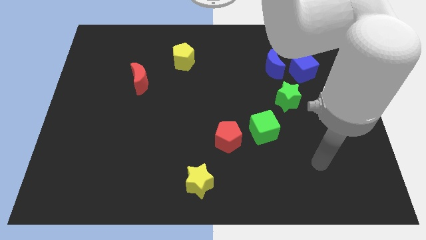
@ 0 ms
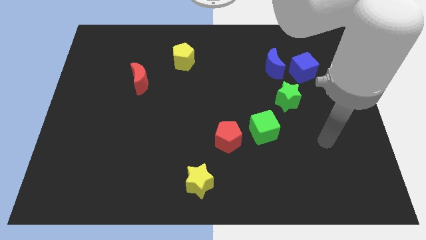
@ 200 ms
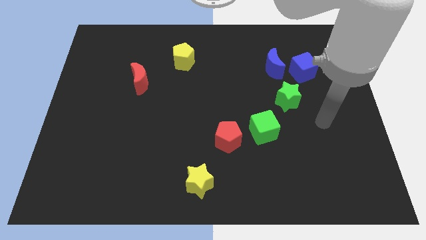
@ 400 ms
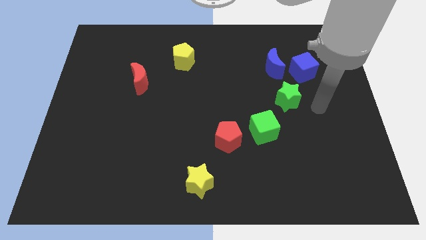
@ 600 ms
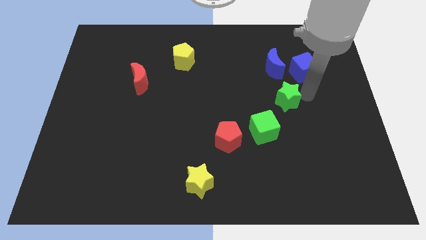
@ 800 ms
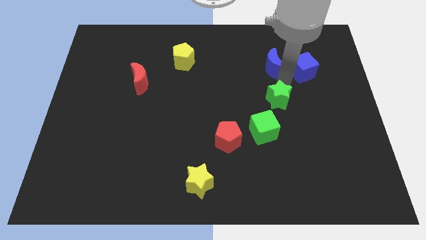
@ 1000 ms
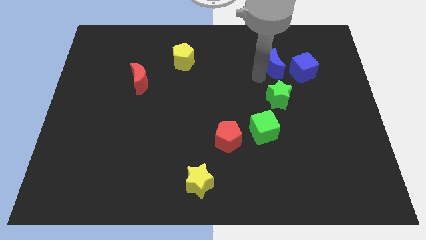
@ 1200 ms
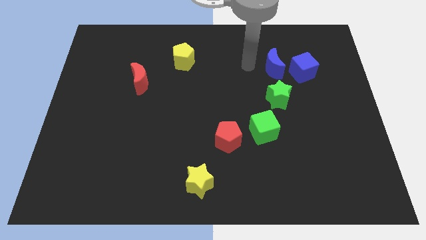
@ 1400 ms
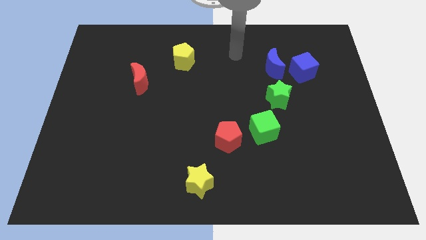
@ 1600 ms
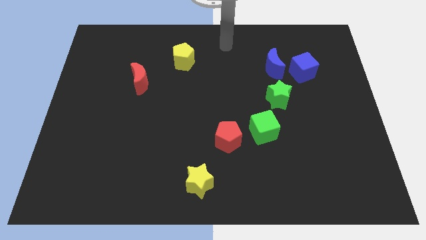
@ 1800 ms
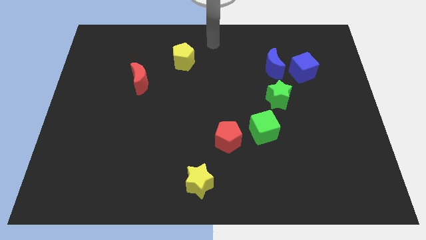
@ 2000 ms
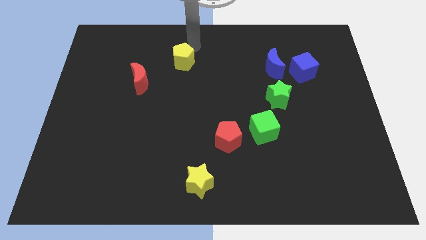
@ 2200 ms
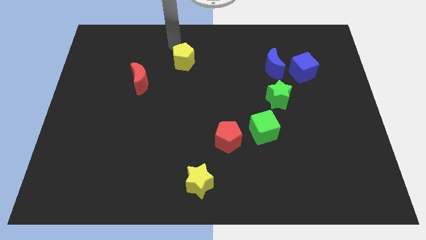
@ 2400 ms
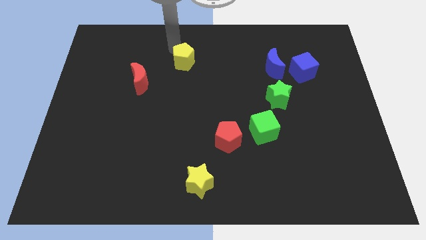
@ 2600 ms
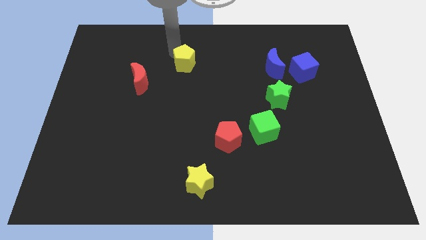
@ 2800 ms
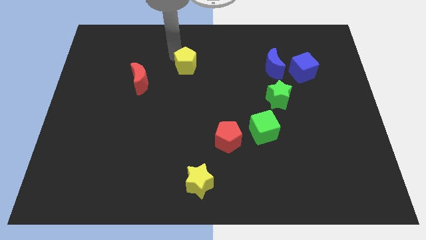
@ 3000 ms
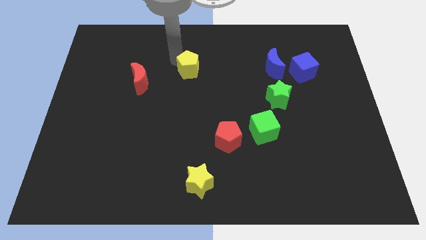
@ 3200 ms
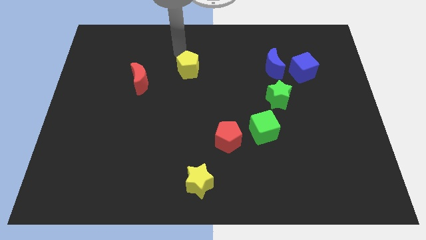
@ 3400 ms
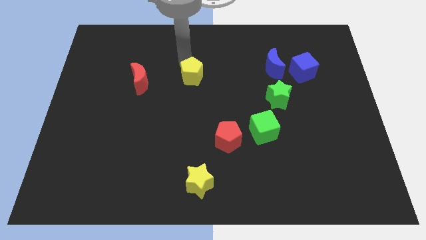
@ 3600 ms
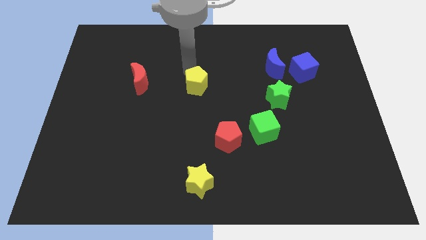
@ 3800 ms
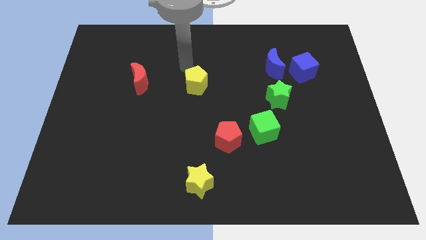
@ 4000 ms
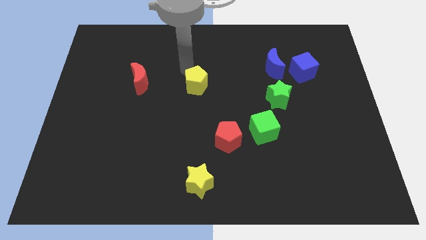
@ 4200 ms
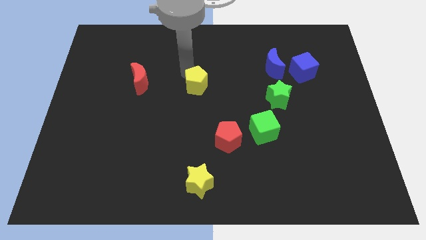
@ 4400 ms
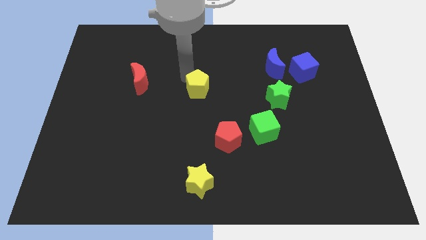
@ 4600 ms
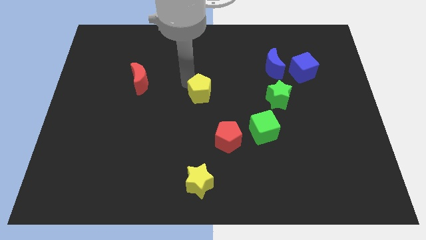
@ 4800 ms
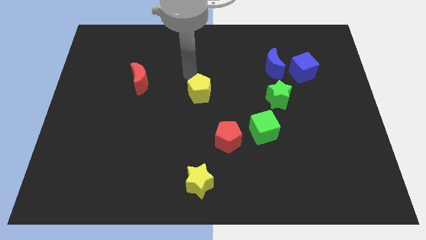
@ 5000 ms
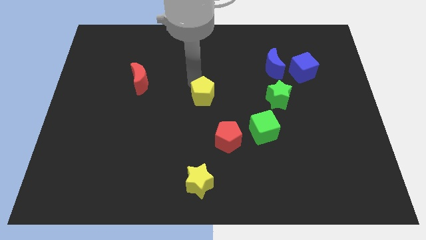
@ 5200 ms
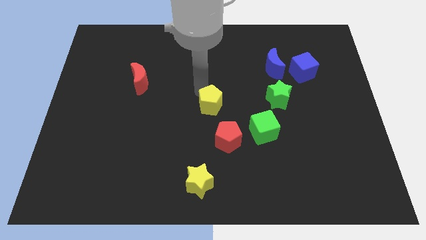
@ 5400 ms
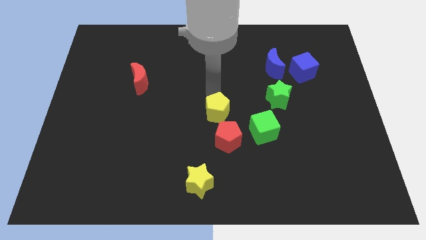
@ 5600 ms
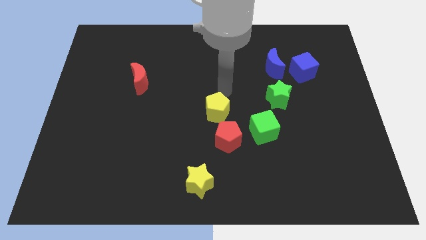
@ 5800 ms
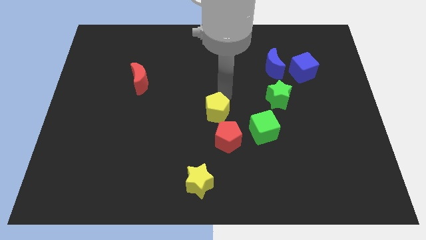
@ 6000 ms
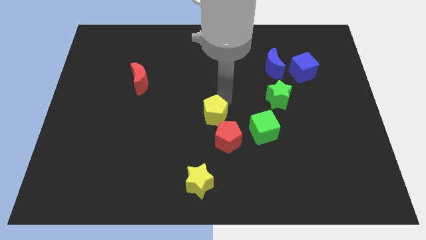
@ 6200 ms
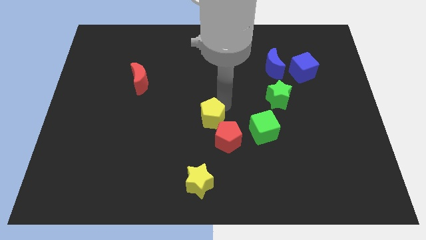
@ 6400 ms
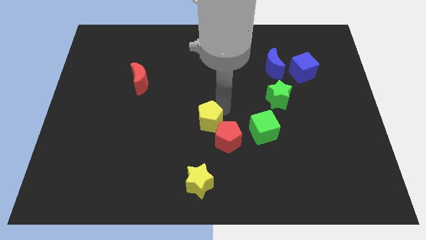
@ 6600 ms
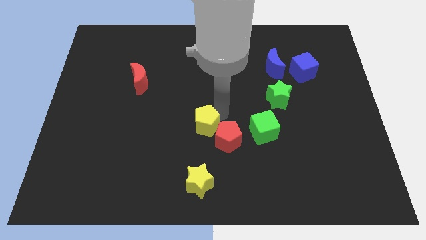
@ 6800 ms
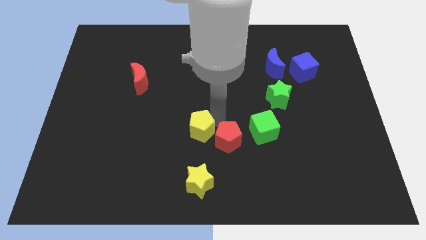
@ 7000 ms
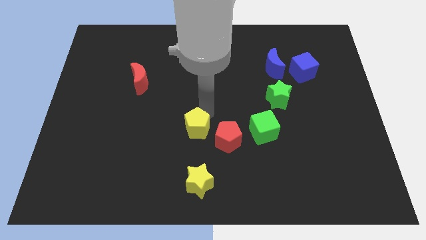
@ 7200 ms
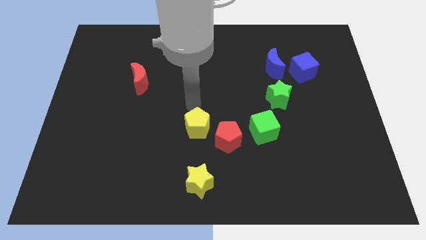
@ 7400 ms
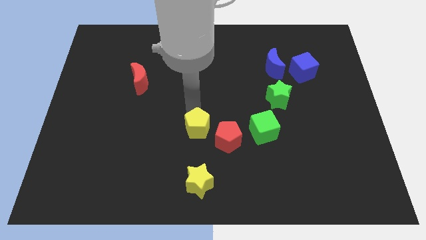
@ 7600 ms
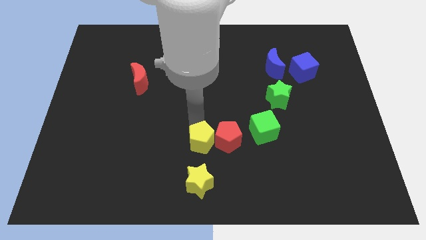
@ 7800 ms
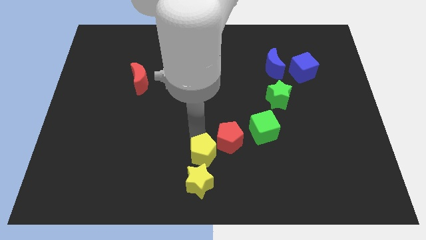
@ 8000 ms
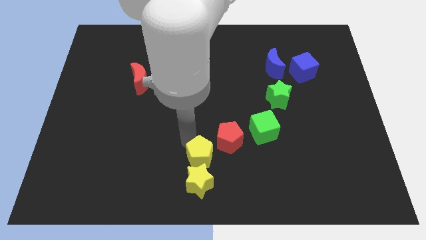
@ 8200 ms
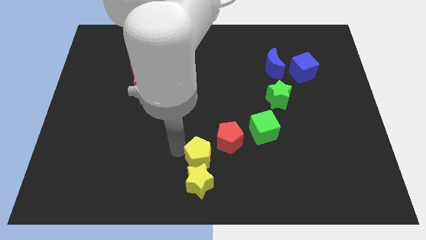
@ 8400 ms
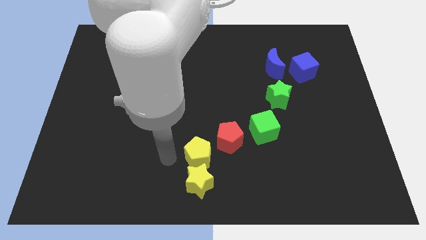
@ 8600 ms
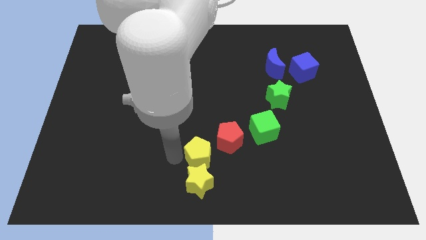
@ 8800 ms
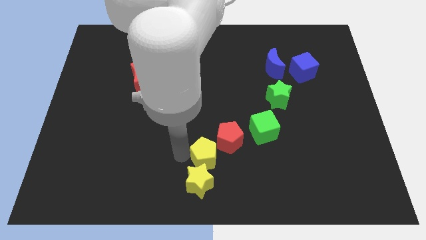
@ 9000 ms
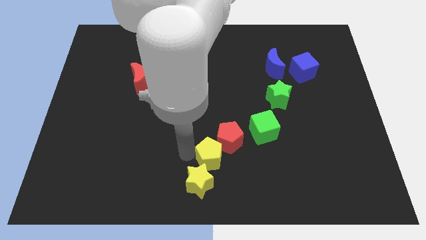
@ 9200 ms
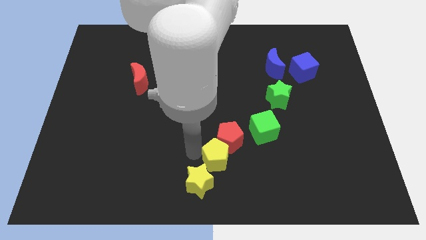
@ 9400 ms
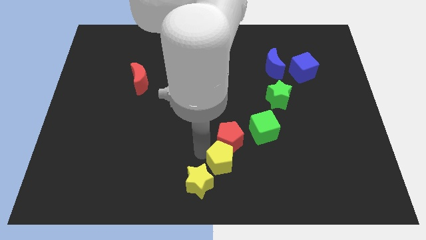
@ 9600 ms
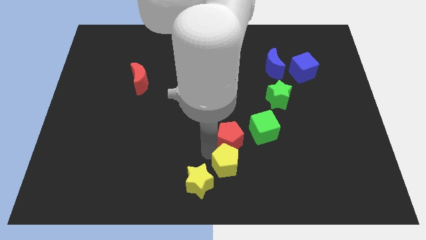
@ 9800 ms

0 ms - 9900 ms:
put the yellow pentagon diagonally down and to the right of the red pentagon

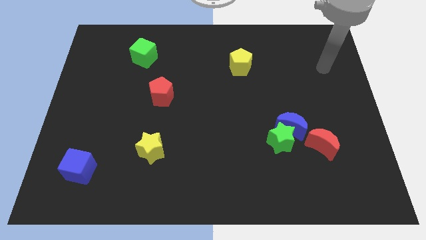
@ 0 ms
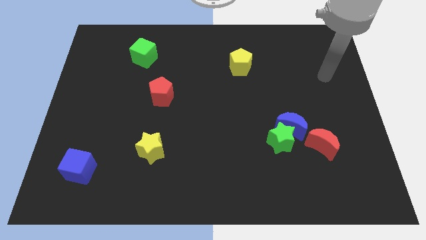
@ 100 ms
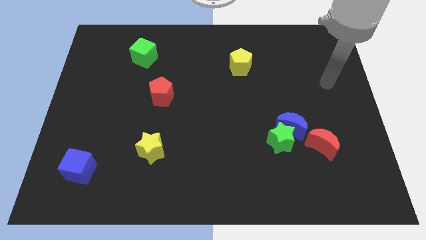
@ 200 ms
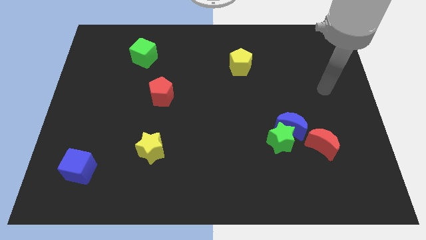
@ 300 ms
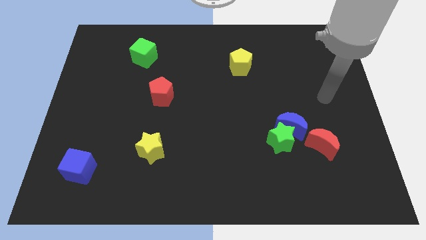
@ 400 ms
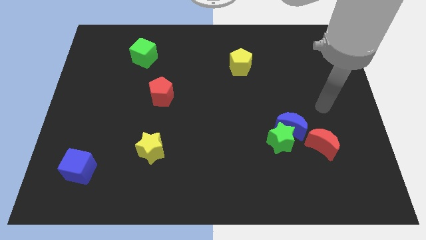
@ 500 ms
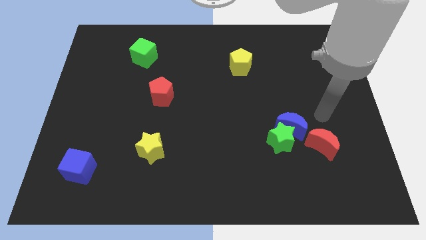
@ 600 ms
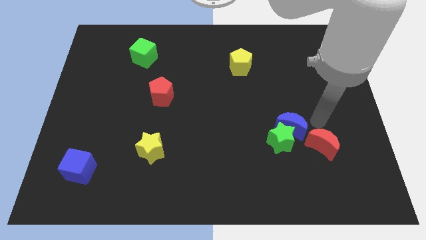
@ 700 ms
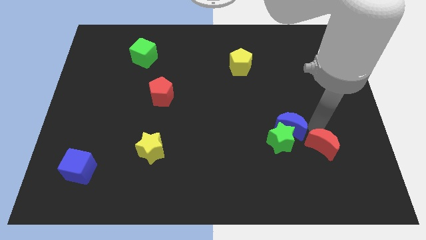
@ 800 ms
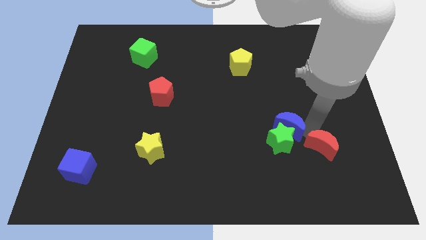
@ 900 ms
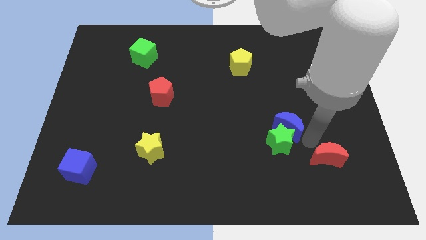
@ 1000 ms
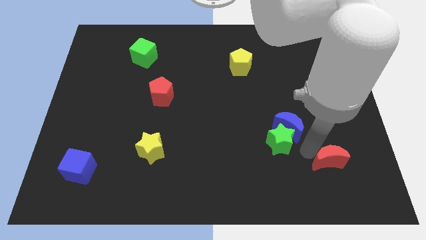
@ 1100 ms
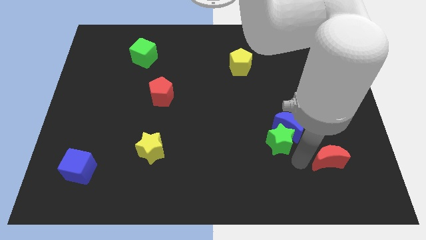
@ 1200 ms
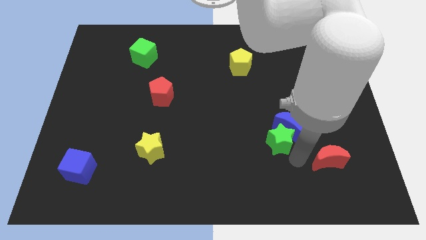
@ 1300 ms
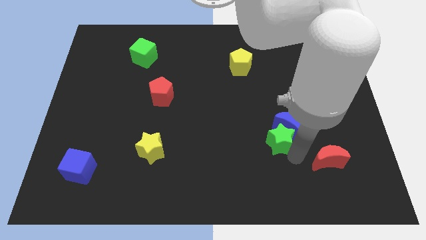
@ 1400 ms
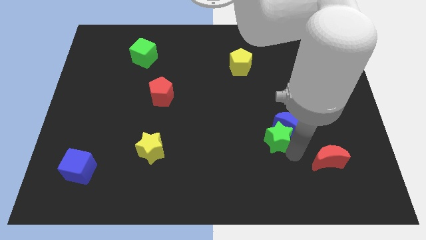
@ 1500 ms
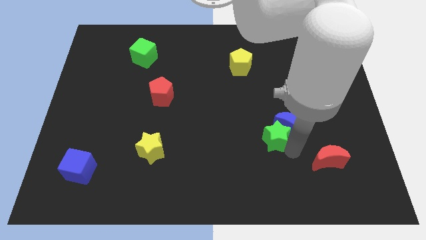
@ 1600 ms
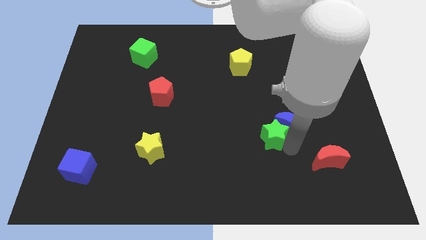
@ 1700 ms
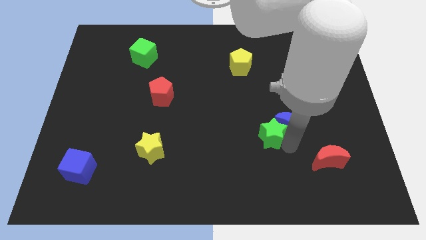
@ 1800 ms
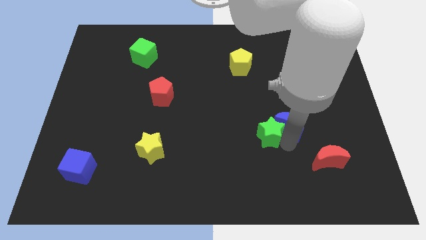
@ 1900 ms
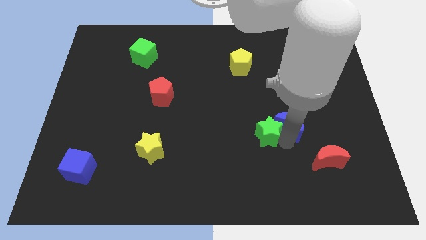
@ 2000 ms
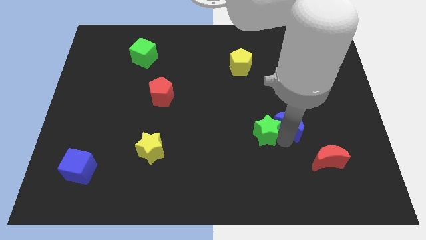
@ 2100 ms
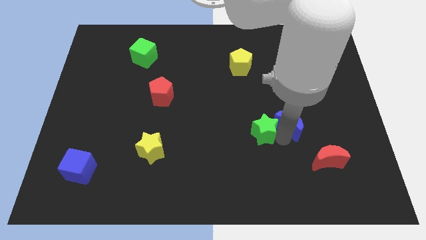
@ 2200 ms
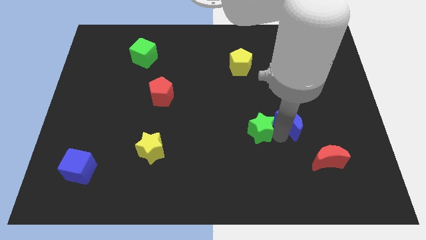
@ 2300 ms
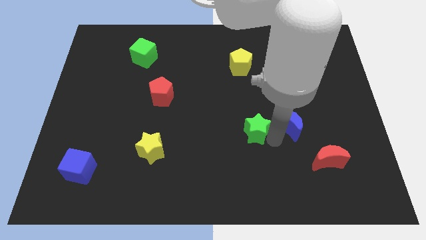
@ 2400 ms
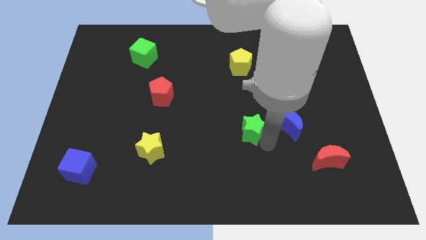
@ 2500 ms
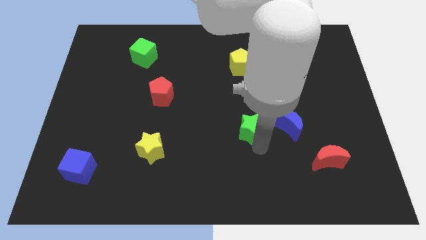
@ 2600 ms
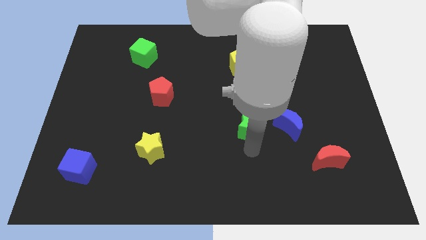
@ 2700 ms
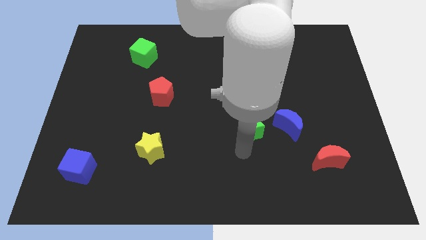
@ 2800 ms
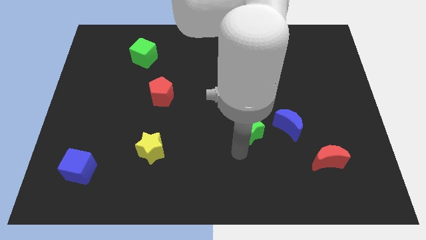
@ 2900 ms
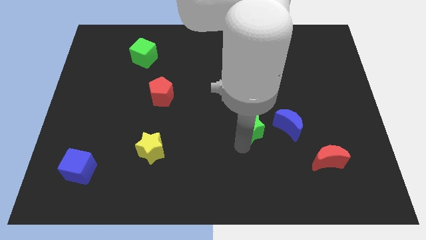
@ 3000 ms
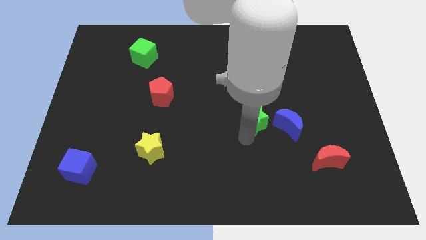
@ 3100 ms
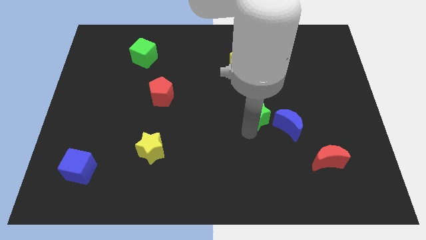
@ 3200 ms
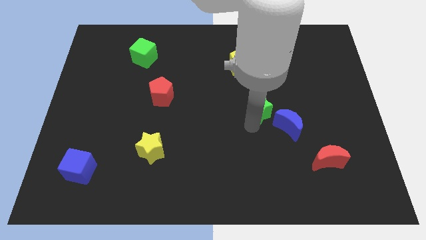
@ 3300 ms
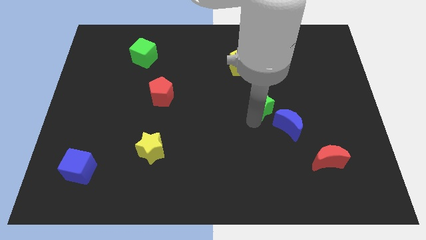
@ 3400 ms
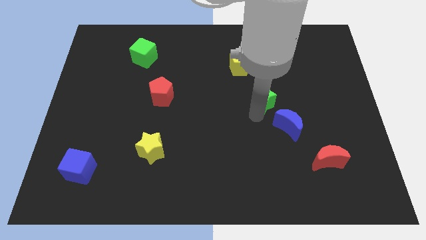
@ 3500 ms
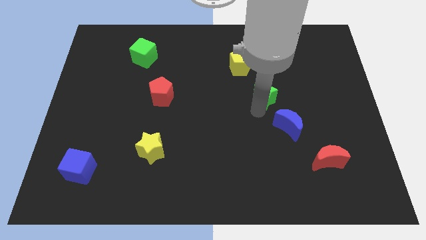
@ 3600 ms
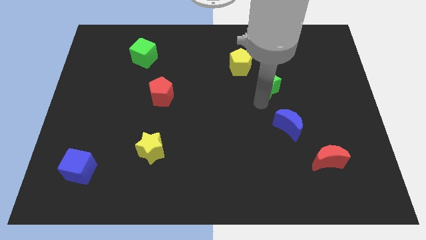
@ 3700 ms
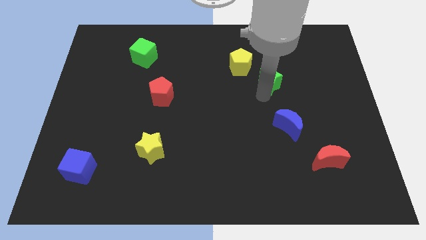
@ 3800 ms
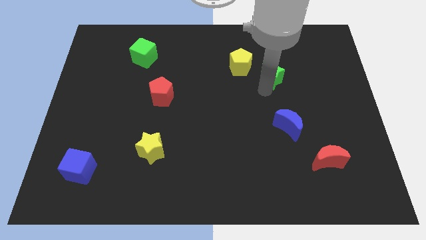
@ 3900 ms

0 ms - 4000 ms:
push the green star to the right side of the yellow pentagon

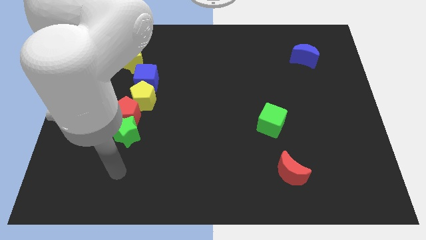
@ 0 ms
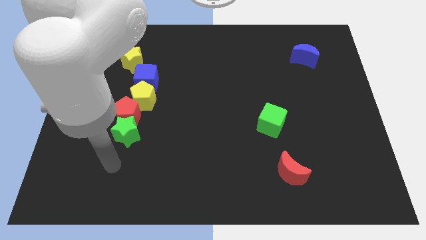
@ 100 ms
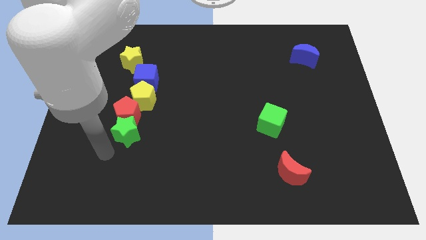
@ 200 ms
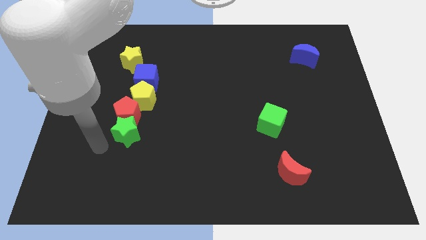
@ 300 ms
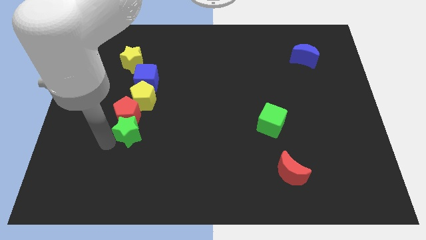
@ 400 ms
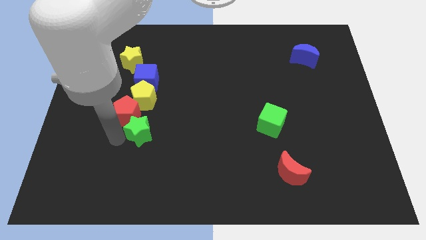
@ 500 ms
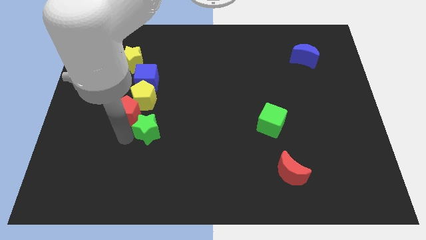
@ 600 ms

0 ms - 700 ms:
push the green star diagonally down and to the right of the yellow pentagon
